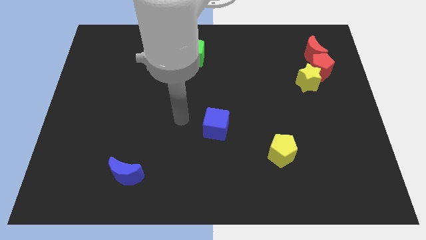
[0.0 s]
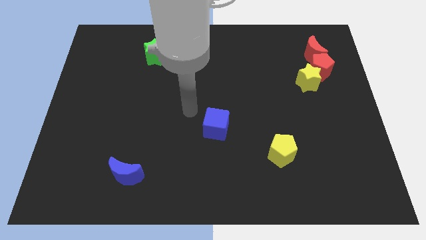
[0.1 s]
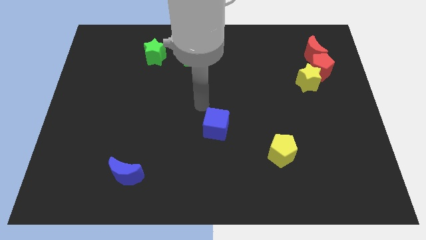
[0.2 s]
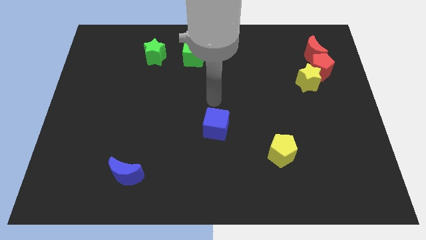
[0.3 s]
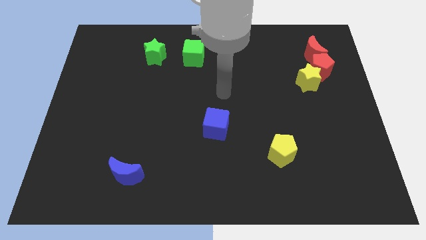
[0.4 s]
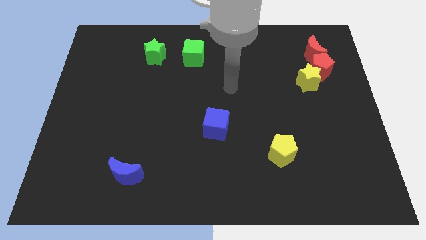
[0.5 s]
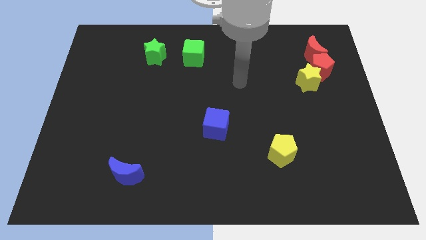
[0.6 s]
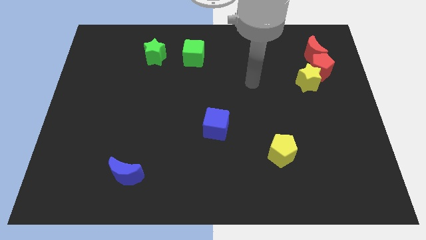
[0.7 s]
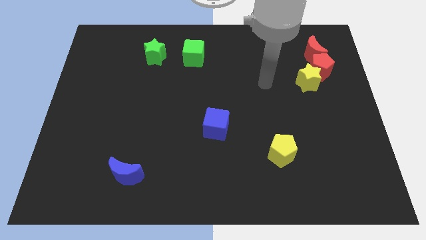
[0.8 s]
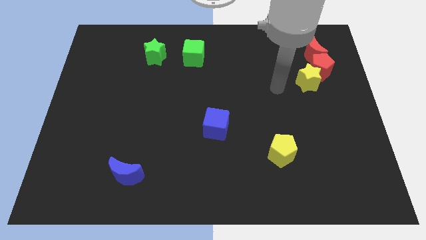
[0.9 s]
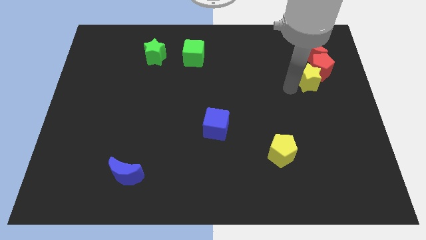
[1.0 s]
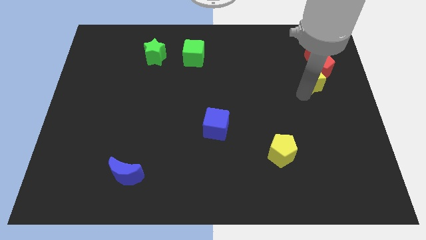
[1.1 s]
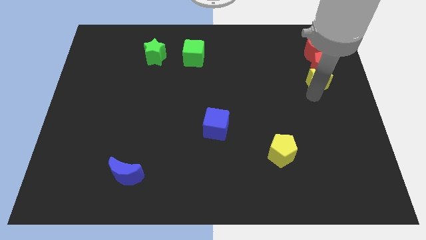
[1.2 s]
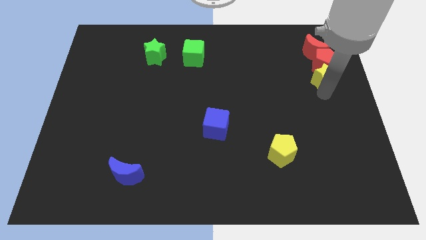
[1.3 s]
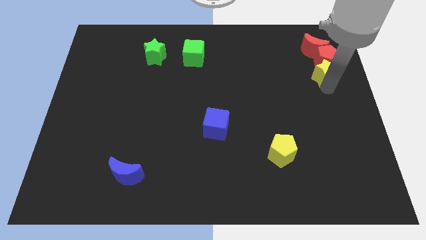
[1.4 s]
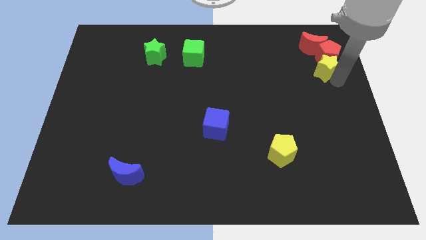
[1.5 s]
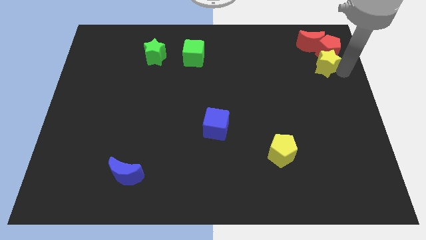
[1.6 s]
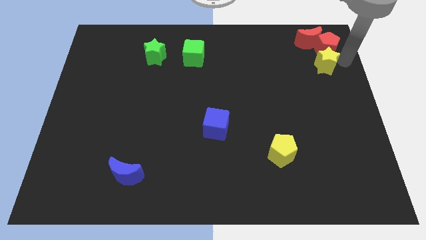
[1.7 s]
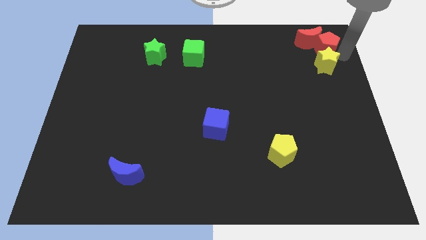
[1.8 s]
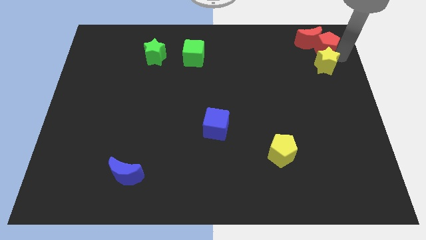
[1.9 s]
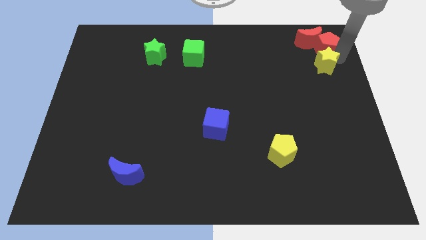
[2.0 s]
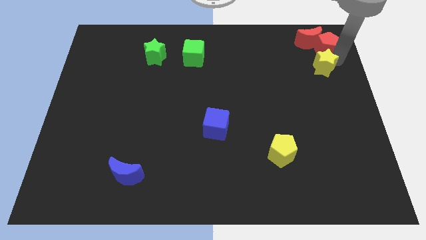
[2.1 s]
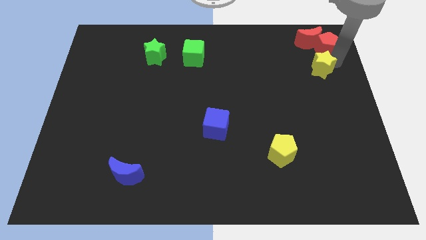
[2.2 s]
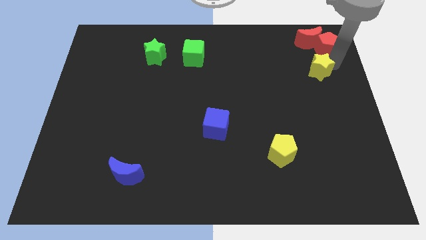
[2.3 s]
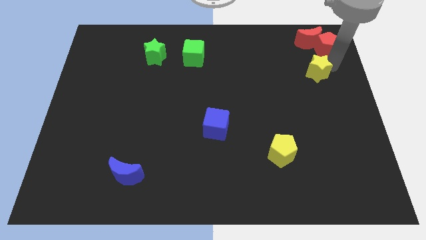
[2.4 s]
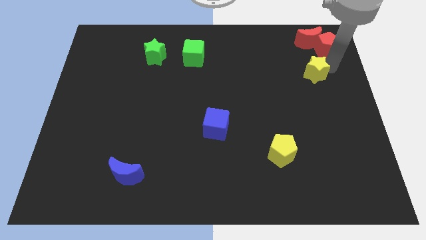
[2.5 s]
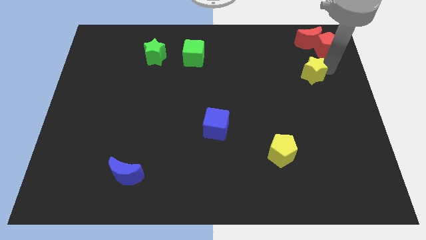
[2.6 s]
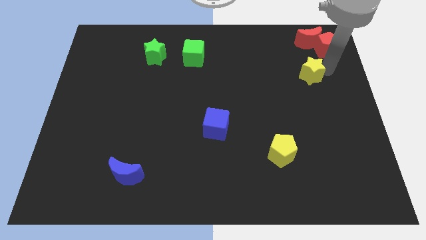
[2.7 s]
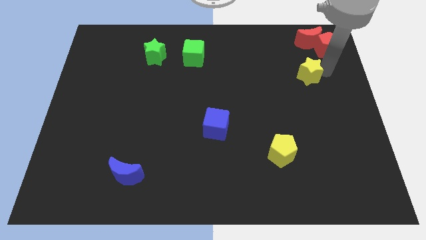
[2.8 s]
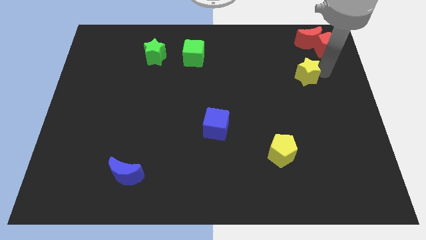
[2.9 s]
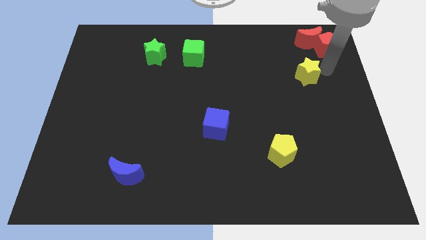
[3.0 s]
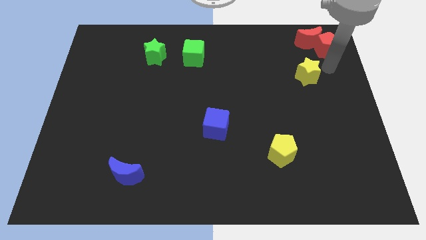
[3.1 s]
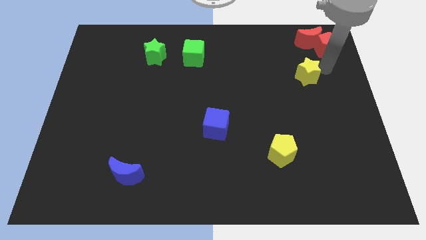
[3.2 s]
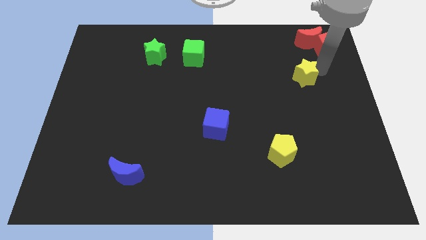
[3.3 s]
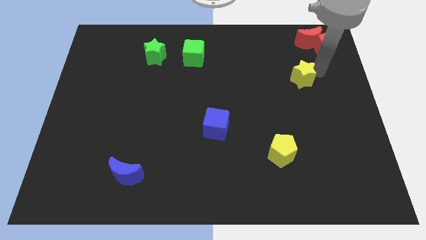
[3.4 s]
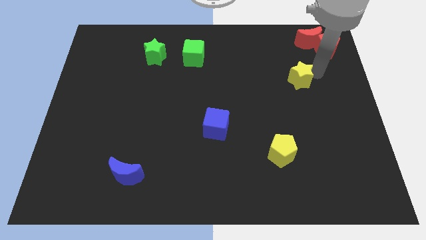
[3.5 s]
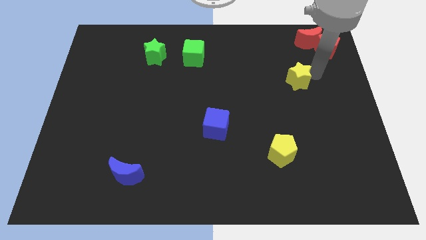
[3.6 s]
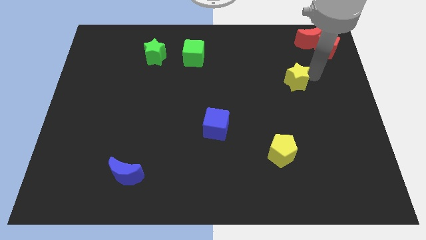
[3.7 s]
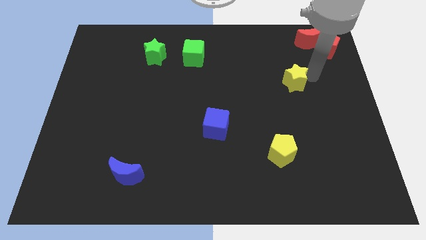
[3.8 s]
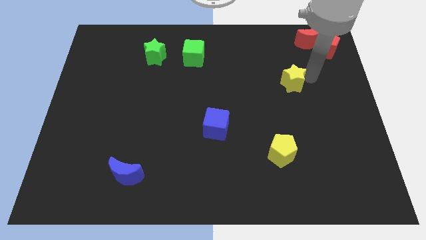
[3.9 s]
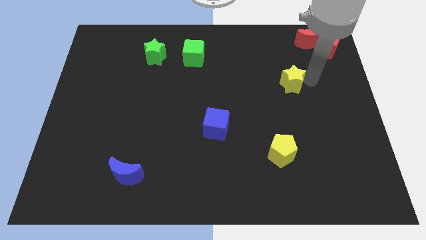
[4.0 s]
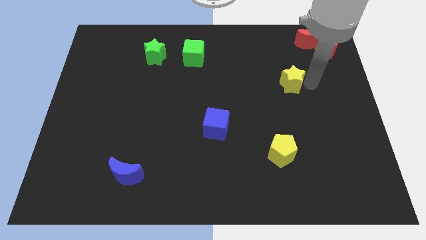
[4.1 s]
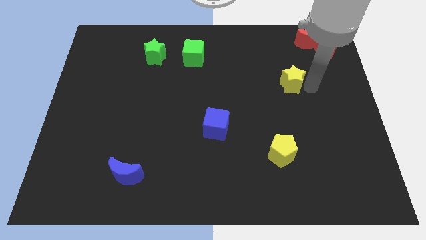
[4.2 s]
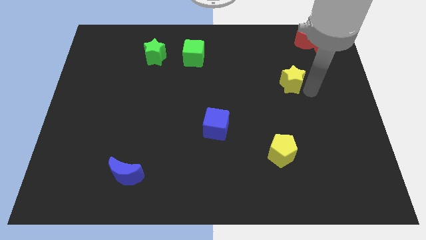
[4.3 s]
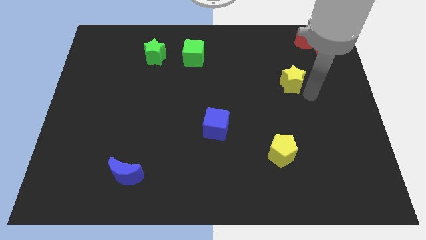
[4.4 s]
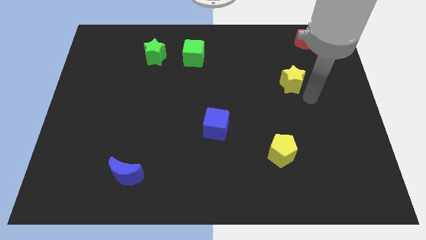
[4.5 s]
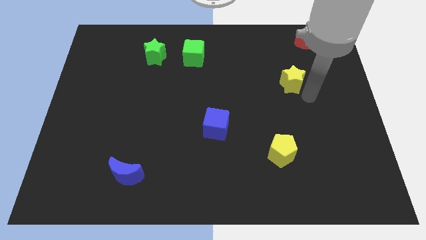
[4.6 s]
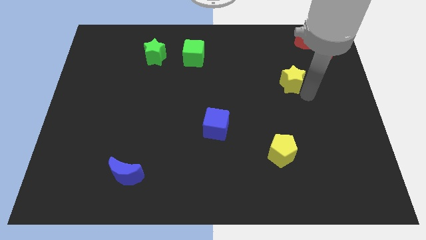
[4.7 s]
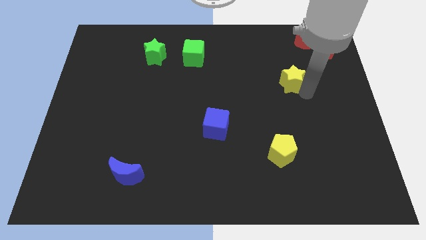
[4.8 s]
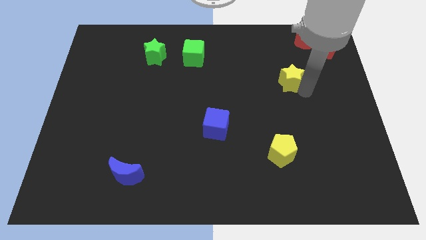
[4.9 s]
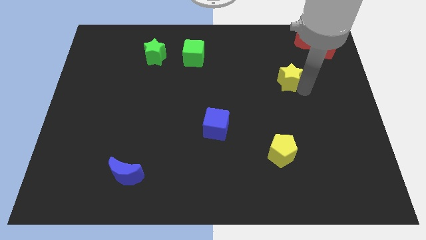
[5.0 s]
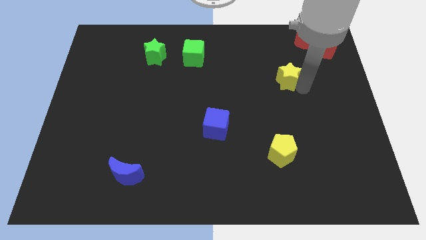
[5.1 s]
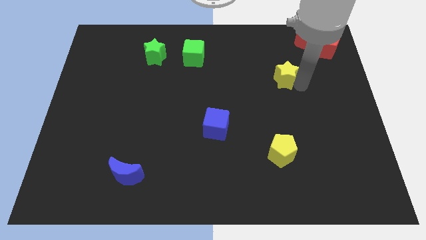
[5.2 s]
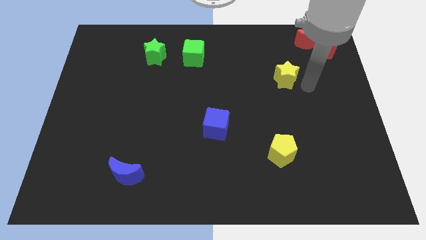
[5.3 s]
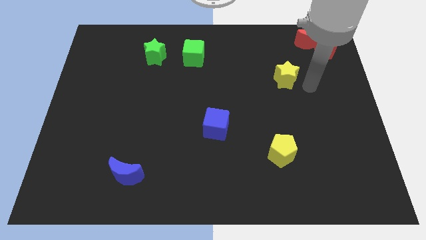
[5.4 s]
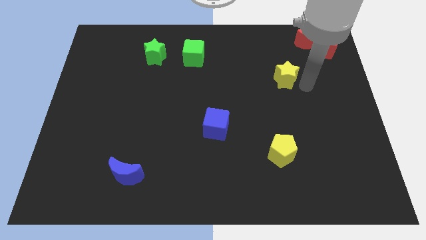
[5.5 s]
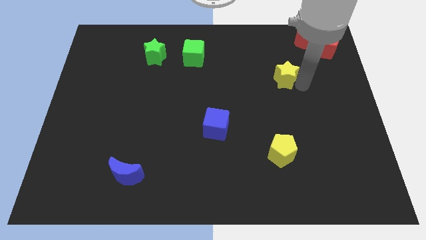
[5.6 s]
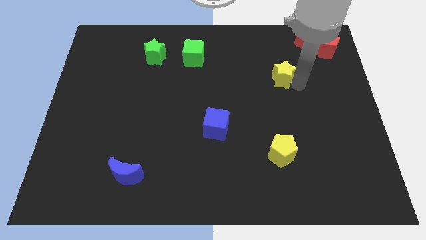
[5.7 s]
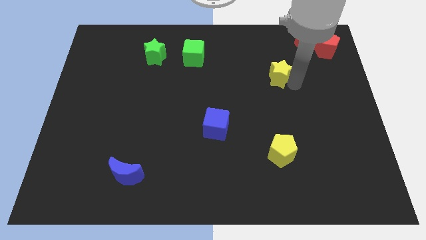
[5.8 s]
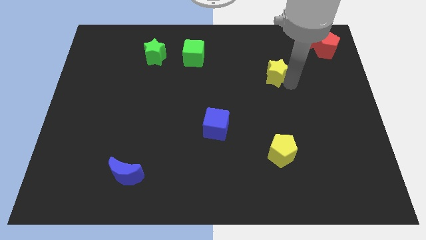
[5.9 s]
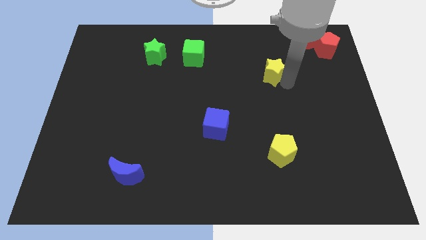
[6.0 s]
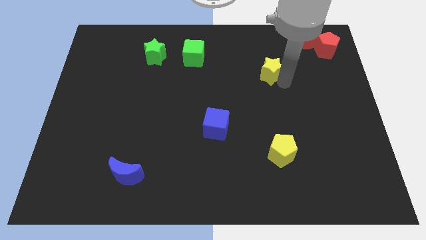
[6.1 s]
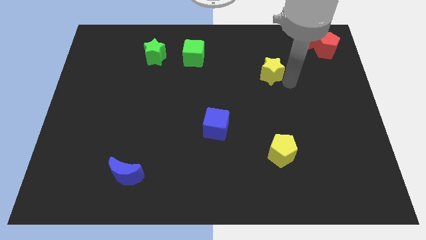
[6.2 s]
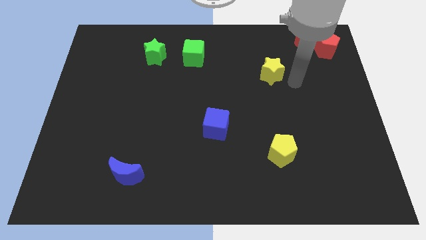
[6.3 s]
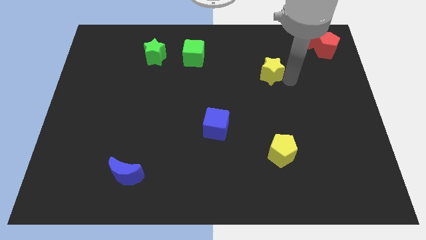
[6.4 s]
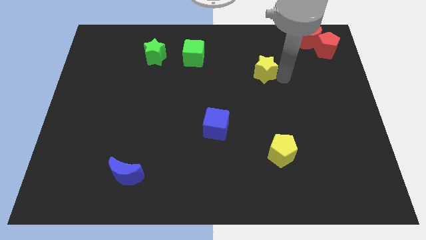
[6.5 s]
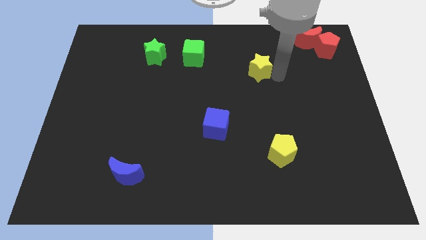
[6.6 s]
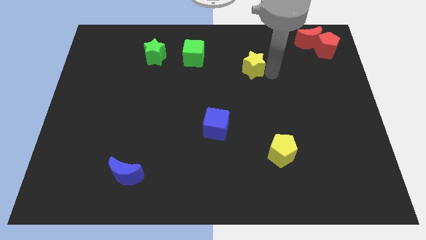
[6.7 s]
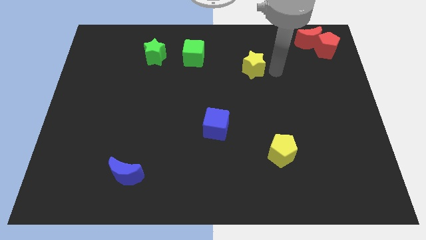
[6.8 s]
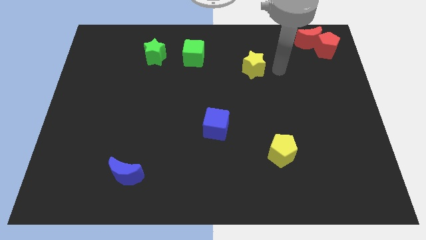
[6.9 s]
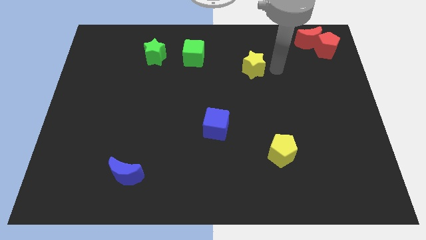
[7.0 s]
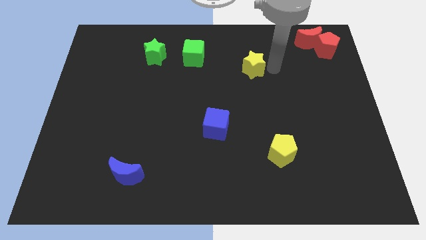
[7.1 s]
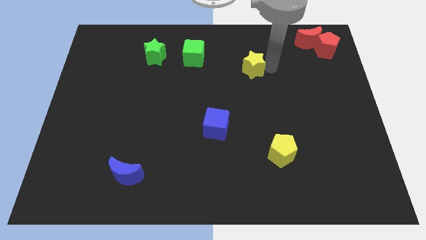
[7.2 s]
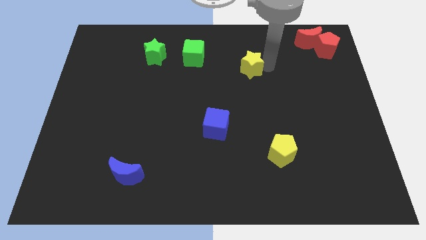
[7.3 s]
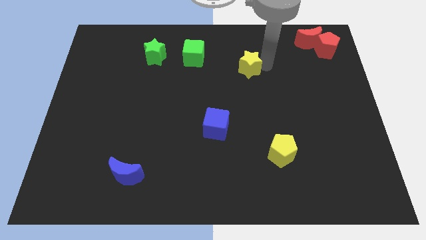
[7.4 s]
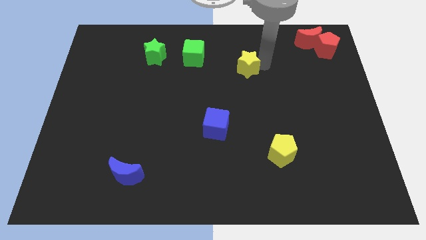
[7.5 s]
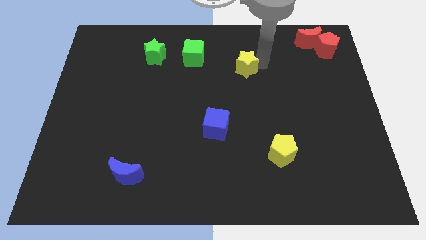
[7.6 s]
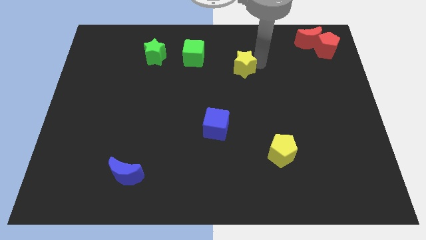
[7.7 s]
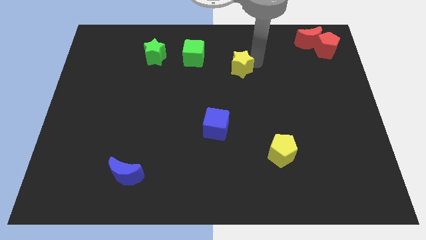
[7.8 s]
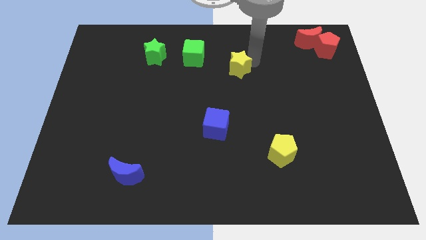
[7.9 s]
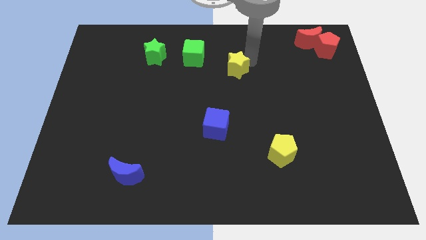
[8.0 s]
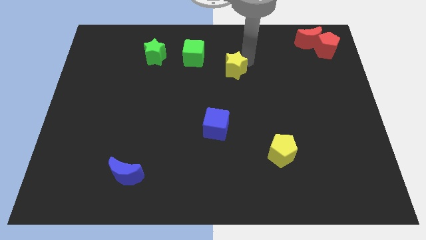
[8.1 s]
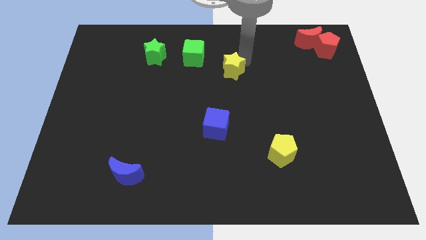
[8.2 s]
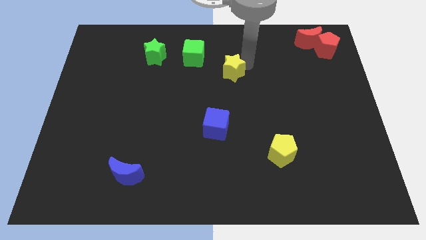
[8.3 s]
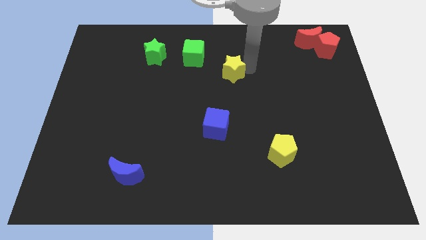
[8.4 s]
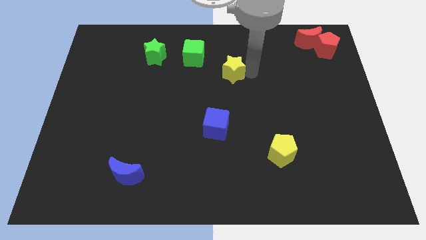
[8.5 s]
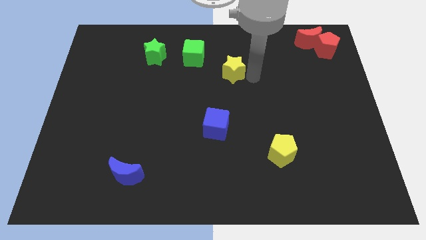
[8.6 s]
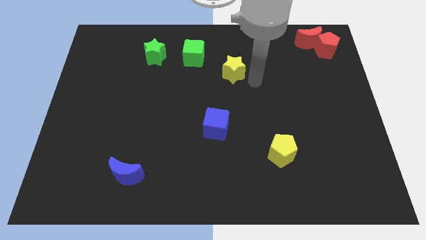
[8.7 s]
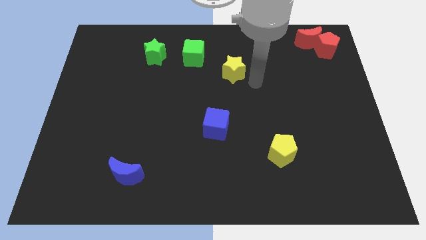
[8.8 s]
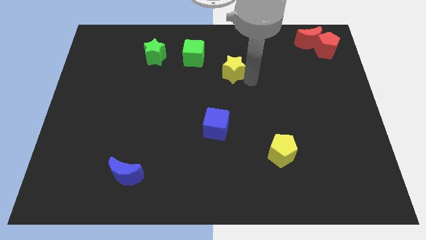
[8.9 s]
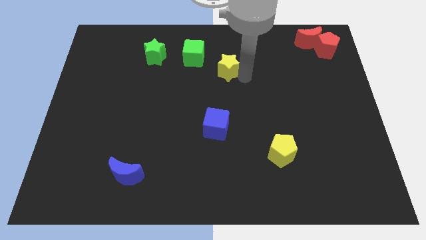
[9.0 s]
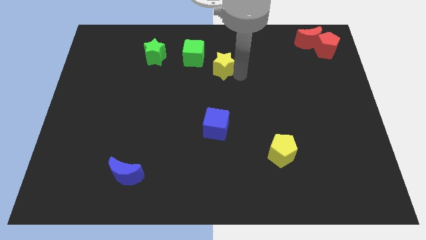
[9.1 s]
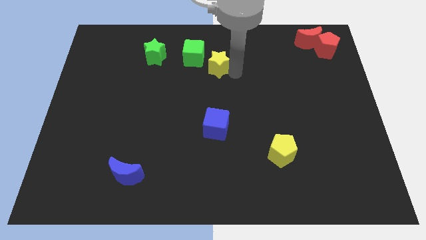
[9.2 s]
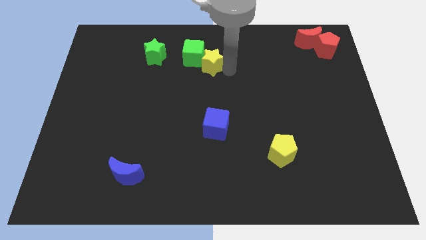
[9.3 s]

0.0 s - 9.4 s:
move the yellow star towards the green cube
